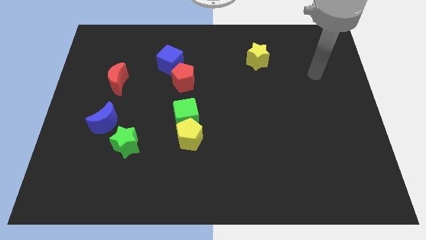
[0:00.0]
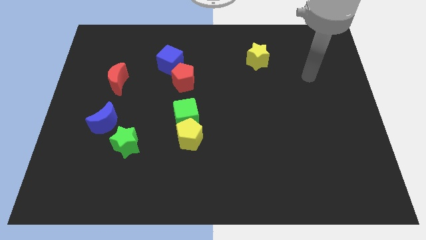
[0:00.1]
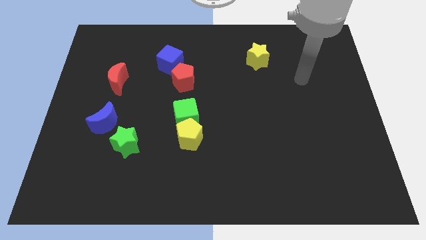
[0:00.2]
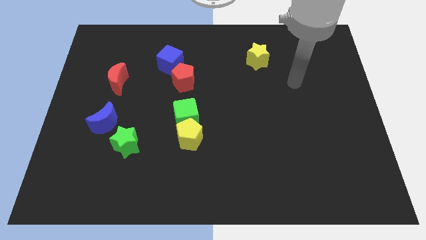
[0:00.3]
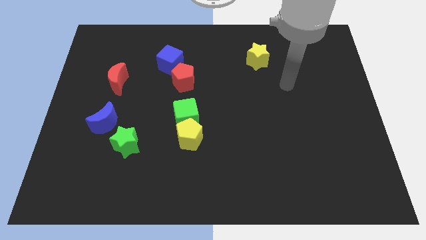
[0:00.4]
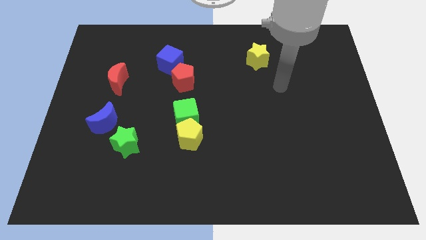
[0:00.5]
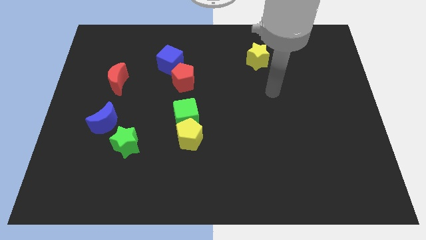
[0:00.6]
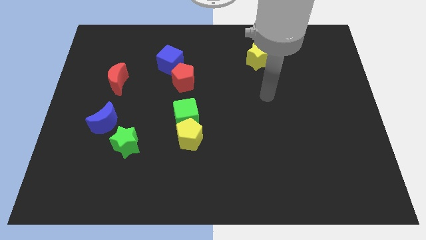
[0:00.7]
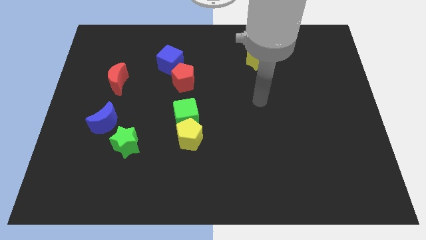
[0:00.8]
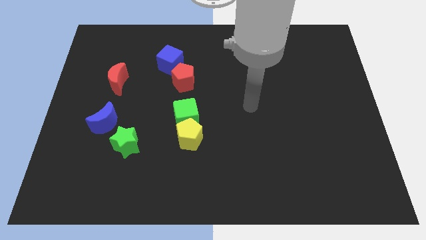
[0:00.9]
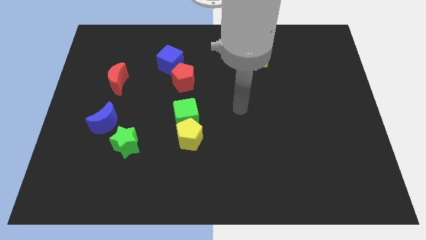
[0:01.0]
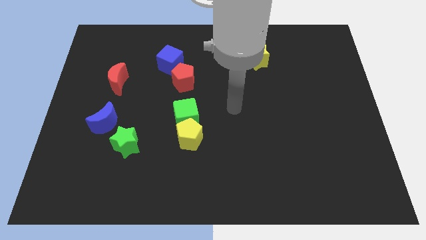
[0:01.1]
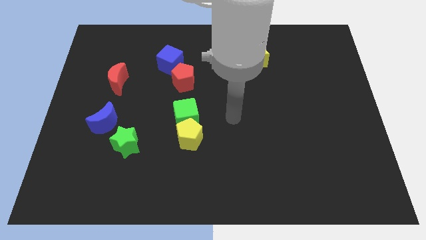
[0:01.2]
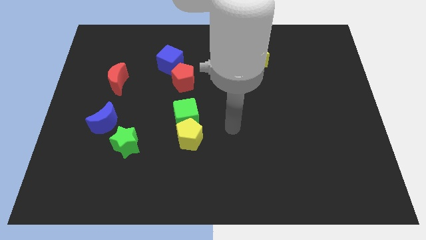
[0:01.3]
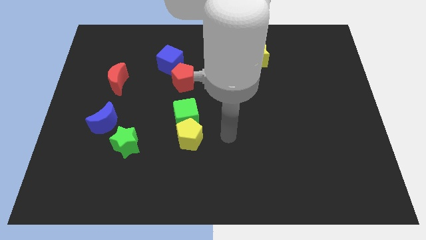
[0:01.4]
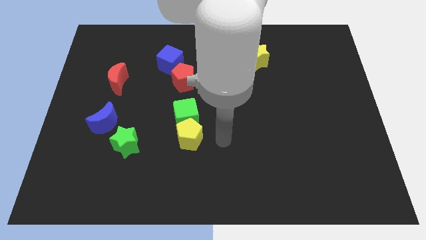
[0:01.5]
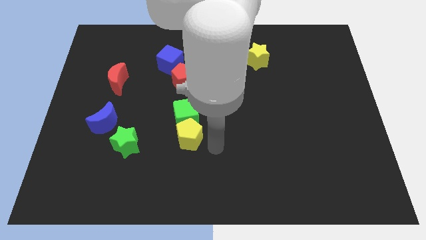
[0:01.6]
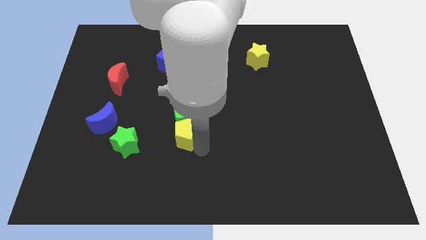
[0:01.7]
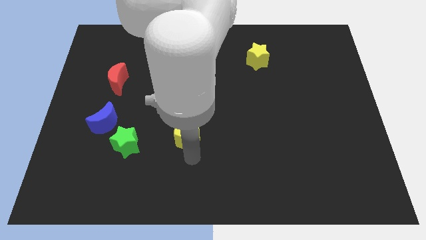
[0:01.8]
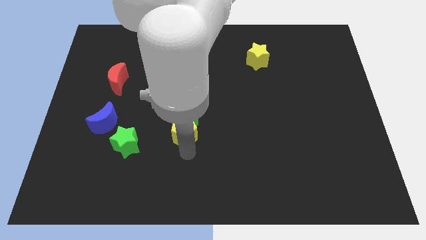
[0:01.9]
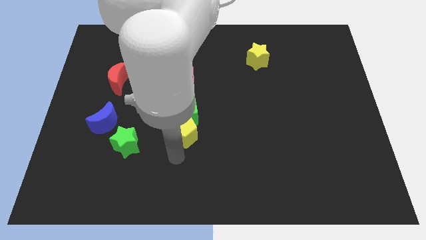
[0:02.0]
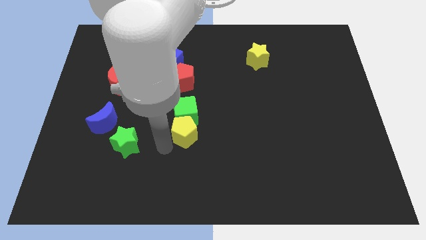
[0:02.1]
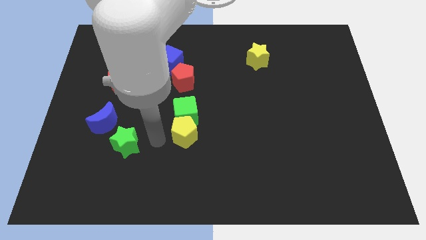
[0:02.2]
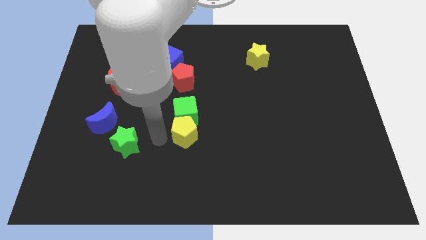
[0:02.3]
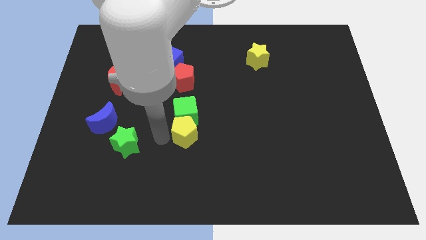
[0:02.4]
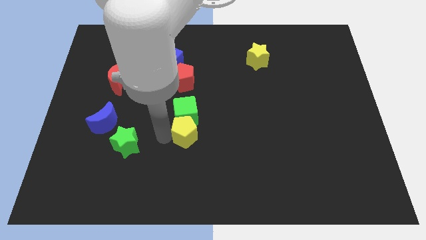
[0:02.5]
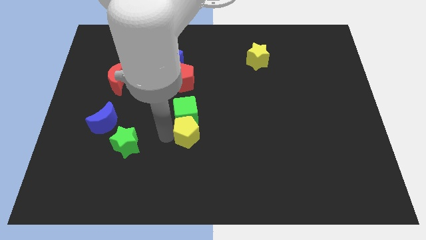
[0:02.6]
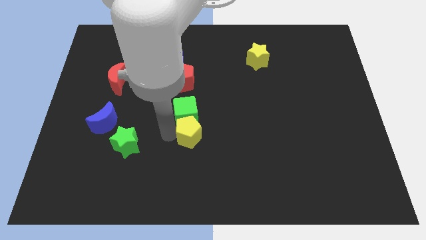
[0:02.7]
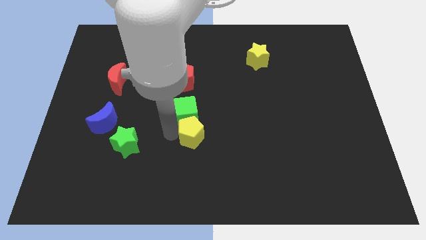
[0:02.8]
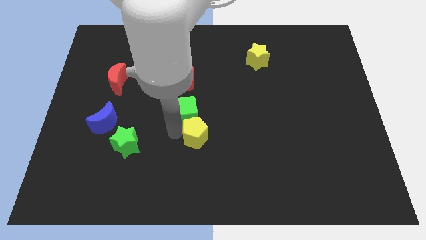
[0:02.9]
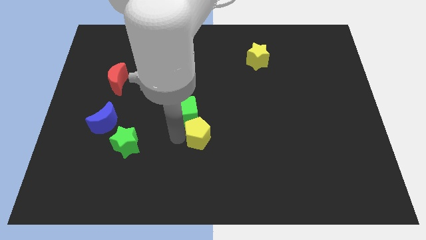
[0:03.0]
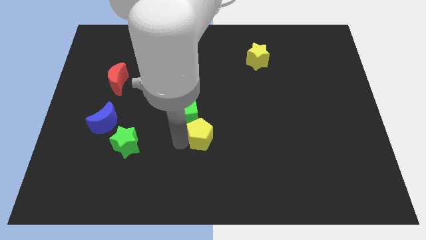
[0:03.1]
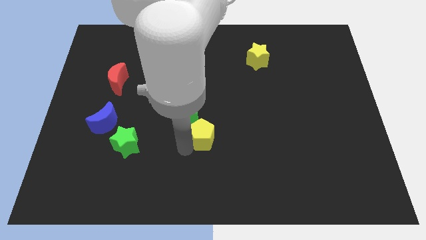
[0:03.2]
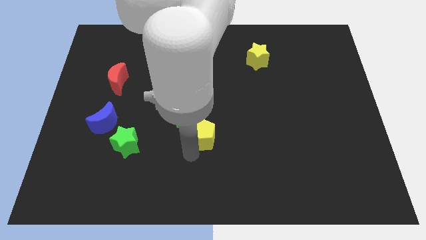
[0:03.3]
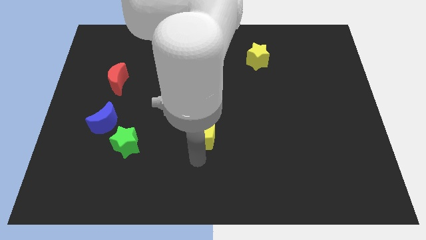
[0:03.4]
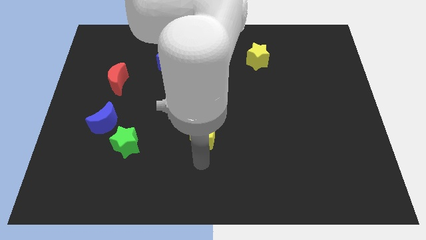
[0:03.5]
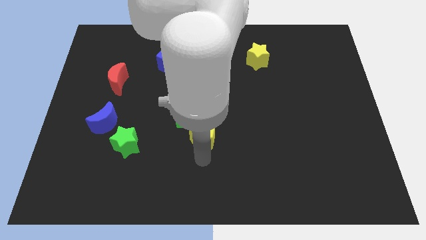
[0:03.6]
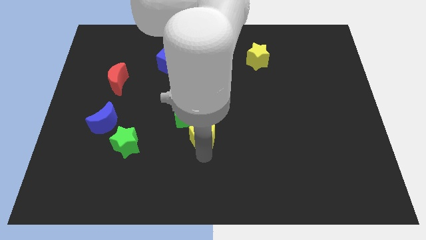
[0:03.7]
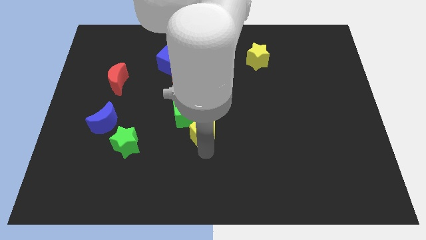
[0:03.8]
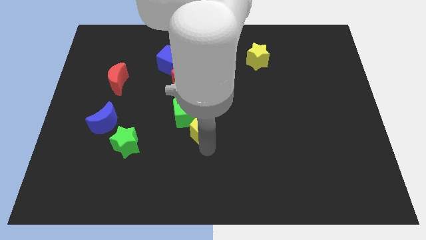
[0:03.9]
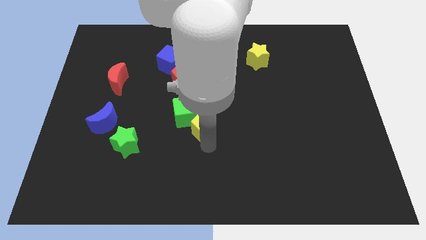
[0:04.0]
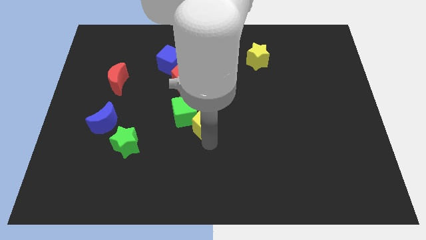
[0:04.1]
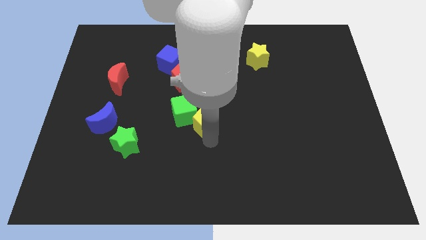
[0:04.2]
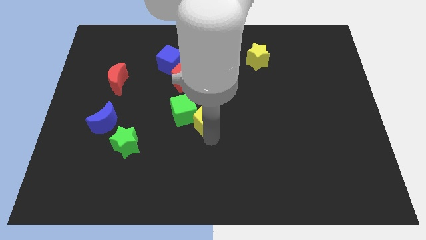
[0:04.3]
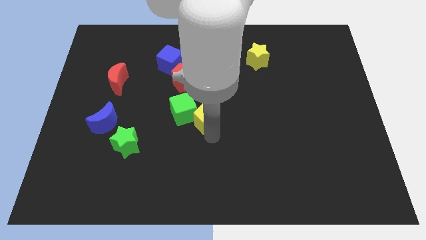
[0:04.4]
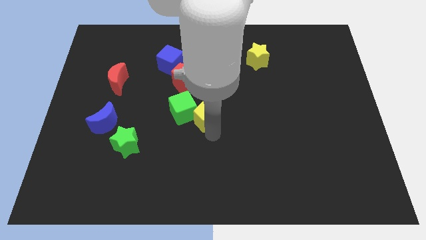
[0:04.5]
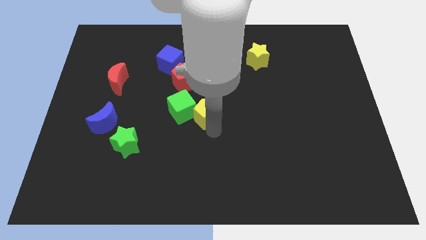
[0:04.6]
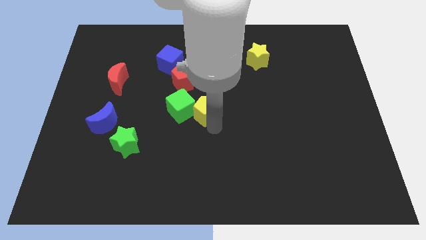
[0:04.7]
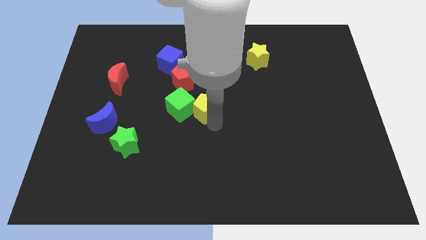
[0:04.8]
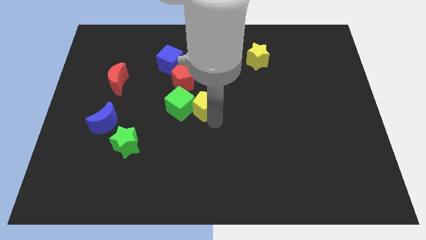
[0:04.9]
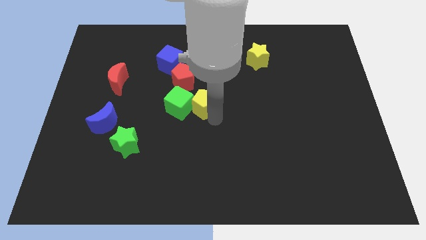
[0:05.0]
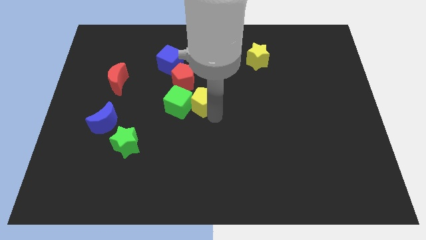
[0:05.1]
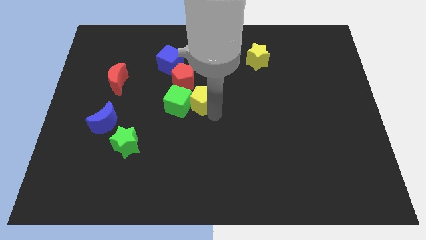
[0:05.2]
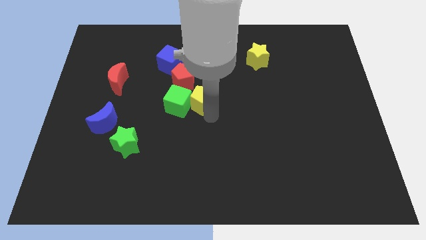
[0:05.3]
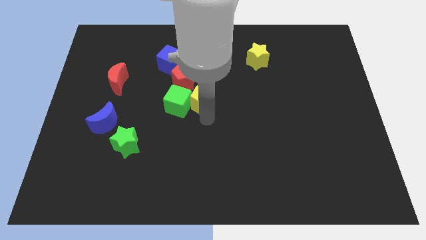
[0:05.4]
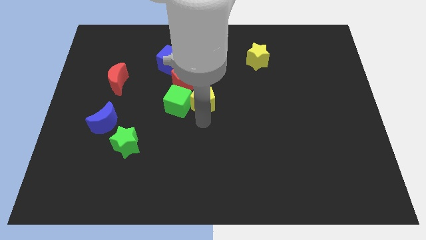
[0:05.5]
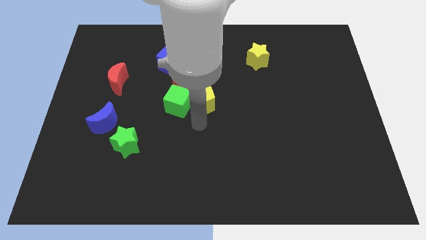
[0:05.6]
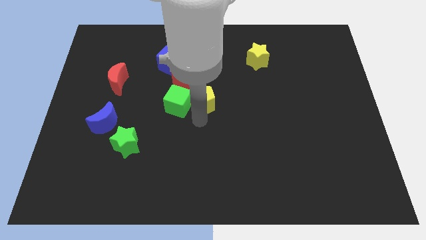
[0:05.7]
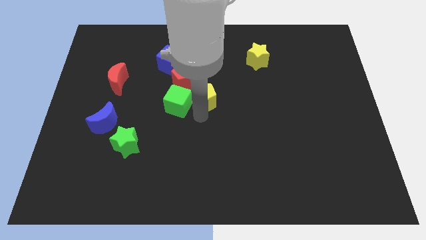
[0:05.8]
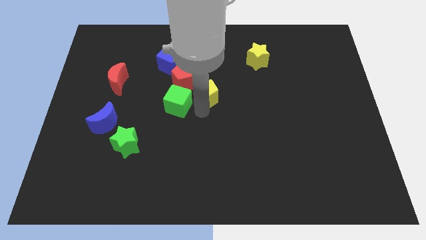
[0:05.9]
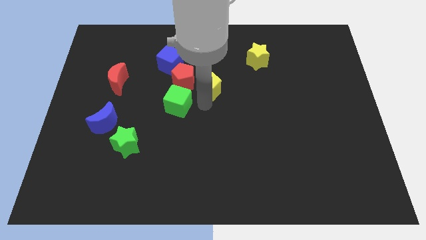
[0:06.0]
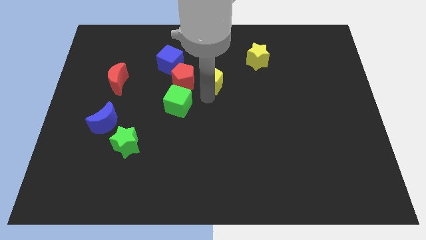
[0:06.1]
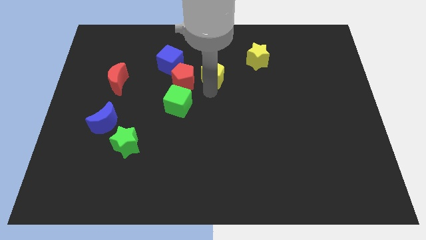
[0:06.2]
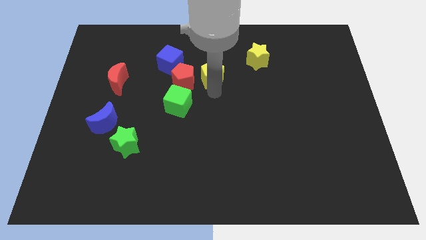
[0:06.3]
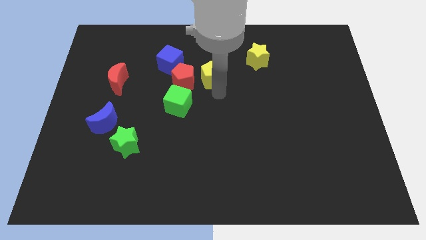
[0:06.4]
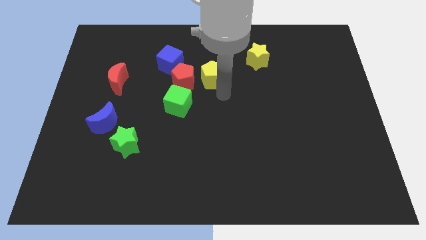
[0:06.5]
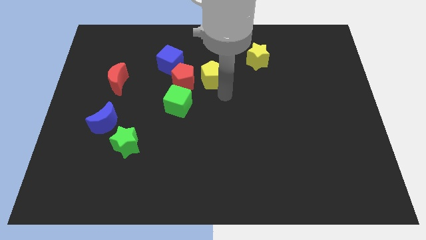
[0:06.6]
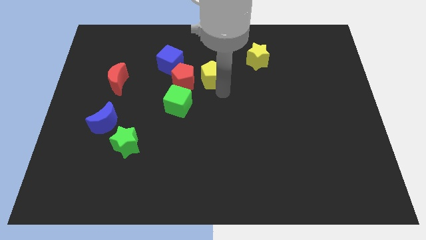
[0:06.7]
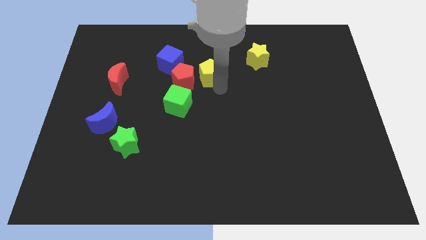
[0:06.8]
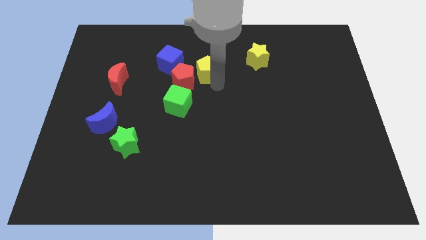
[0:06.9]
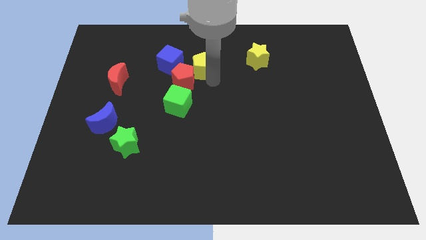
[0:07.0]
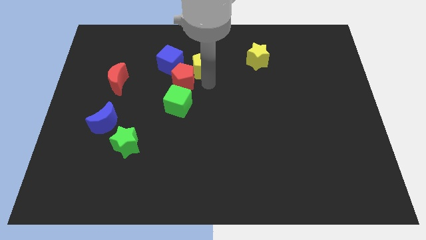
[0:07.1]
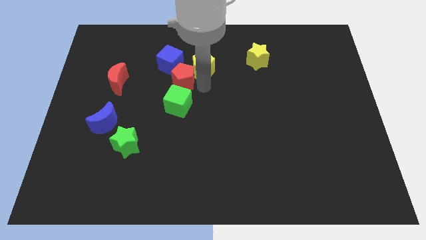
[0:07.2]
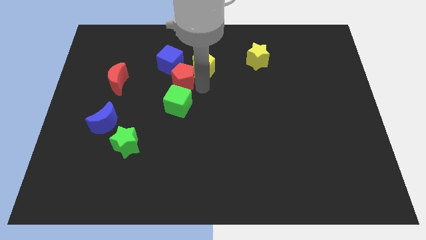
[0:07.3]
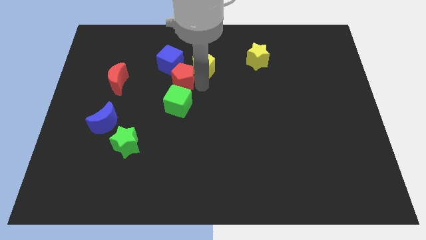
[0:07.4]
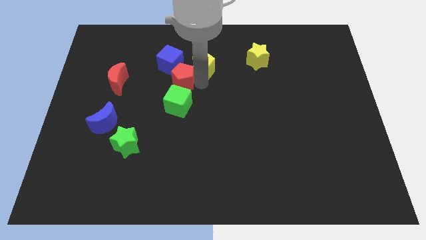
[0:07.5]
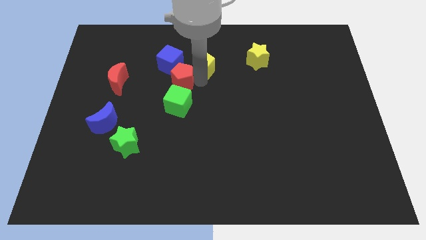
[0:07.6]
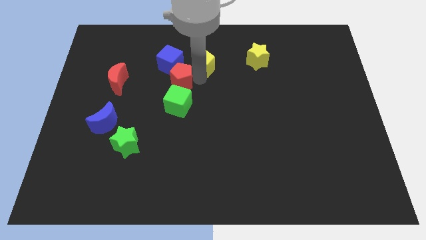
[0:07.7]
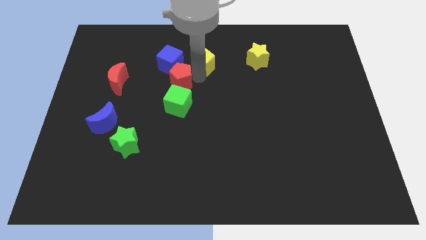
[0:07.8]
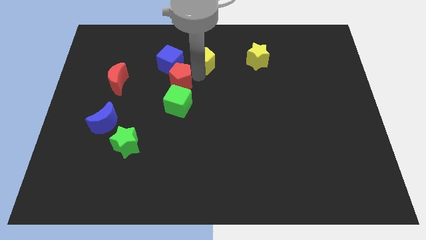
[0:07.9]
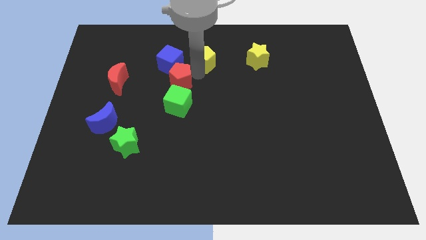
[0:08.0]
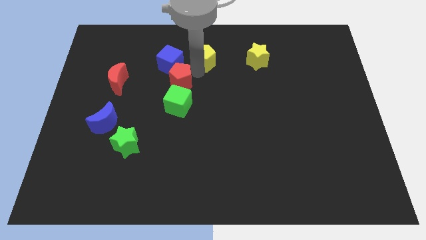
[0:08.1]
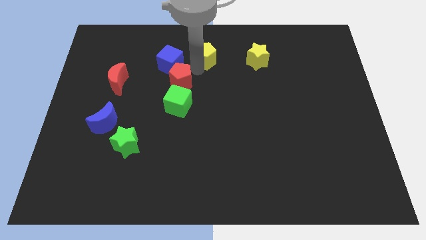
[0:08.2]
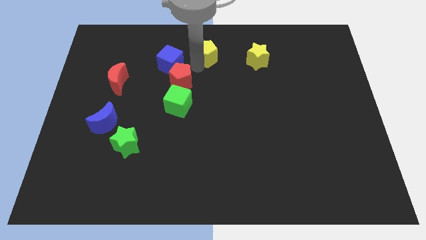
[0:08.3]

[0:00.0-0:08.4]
move the yellow pentagon to the towards your base
